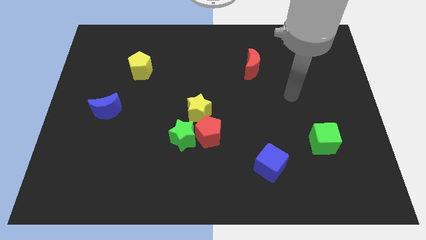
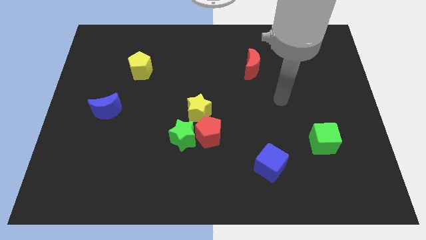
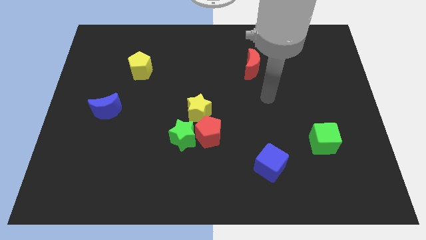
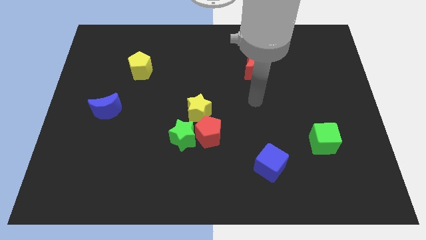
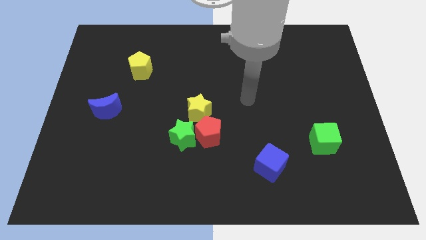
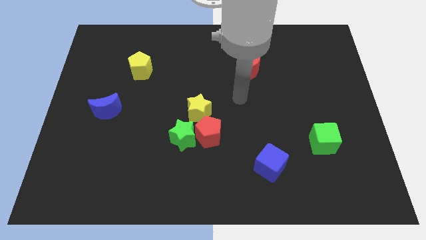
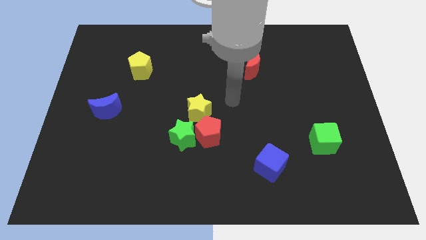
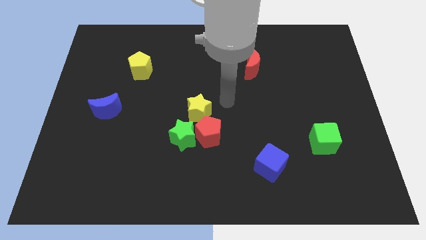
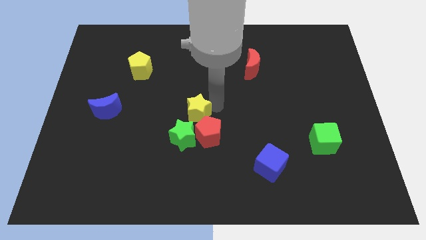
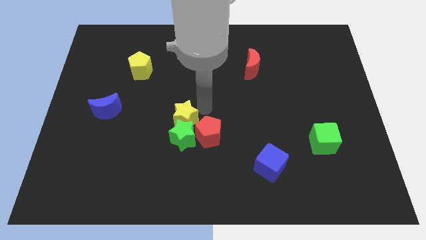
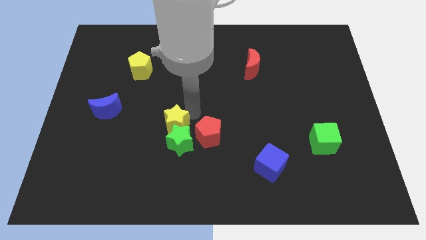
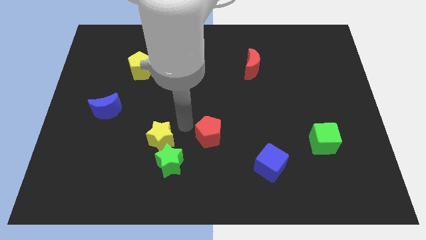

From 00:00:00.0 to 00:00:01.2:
pull the red pentagon apart from the green star and yellow star

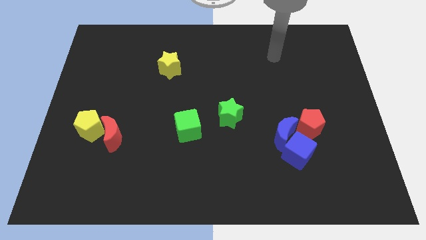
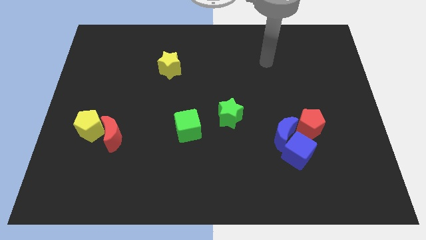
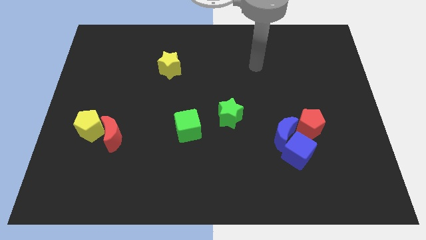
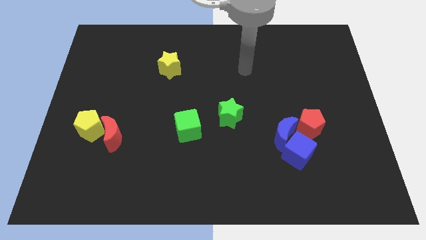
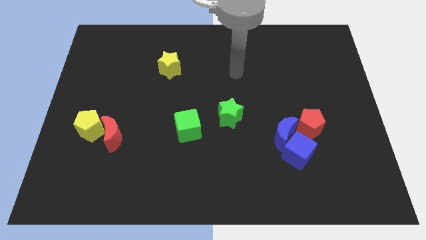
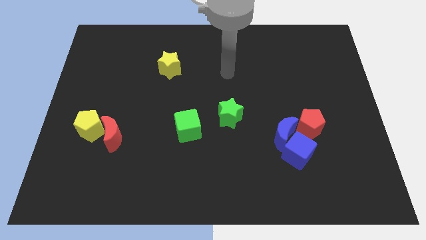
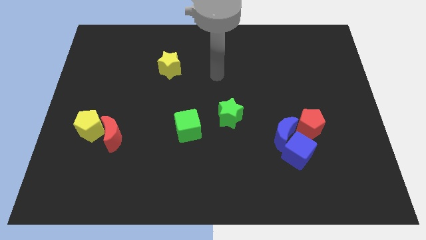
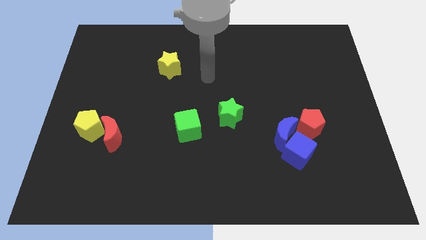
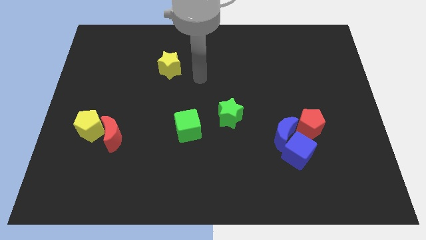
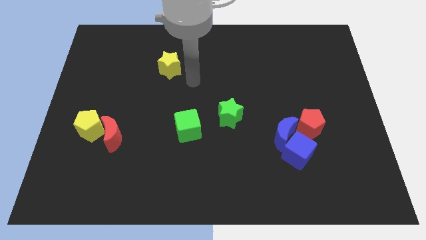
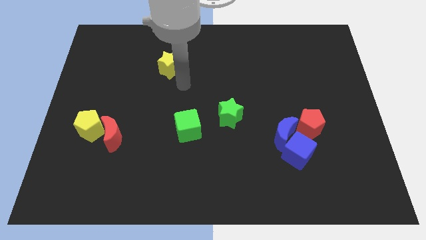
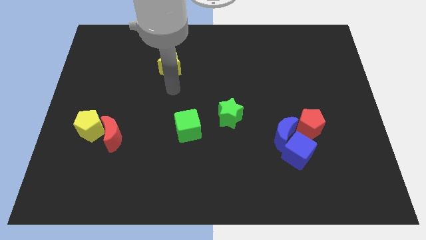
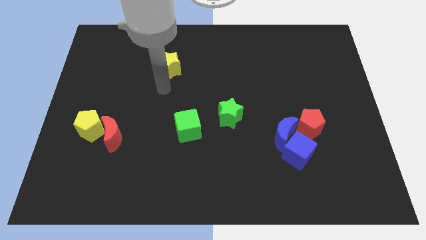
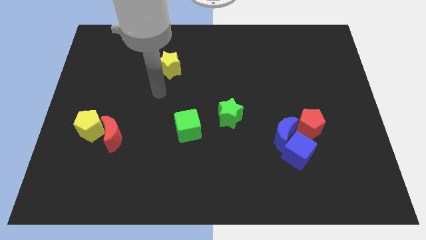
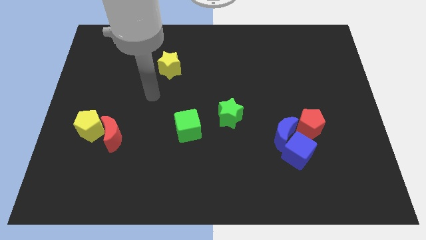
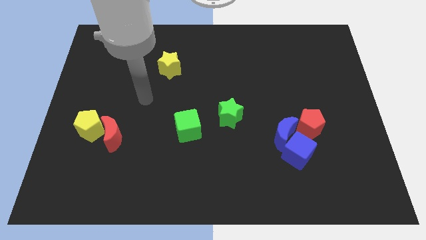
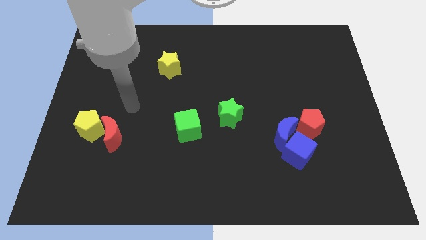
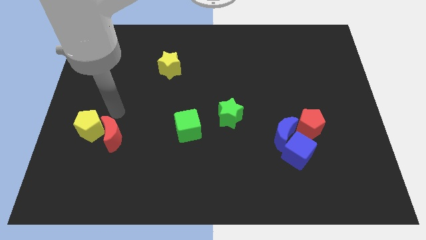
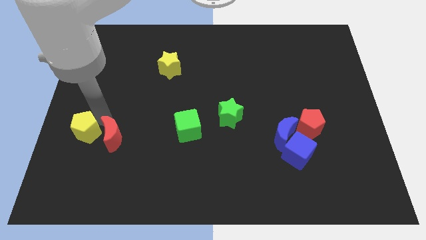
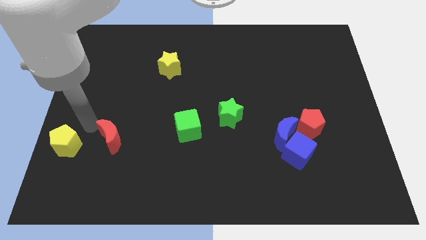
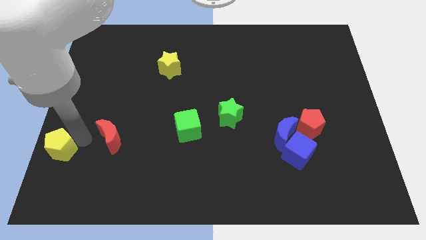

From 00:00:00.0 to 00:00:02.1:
move the red moon away from the yellow pentagon

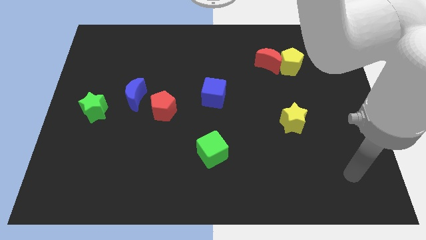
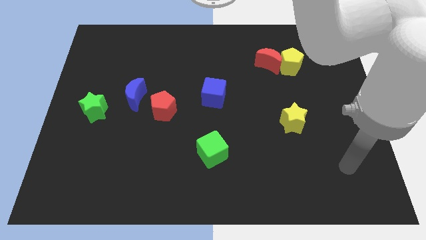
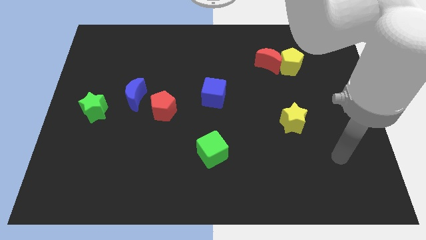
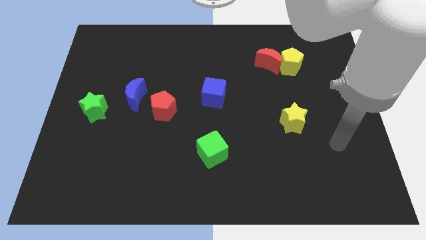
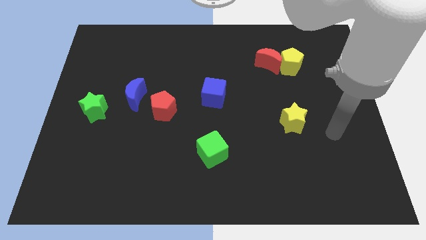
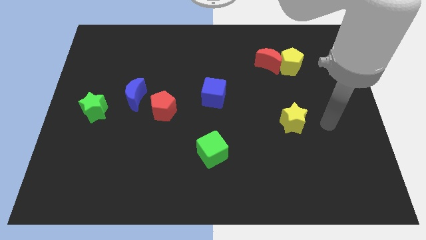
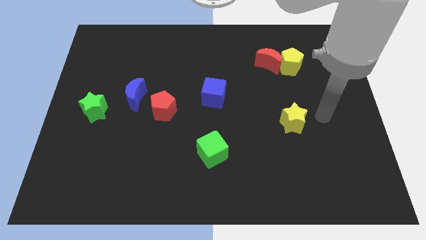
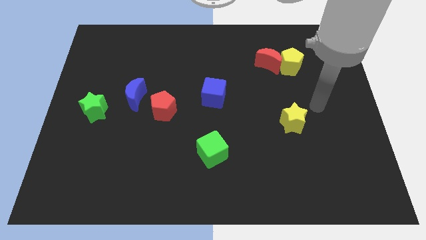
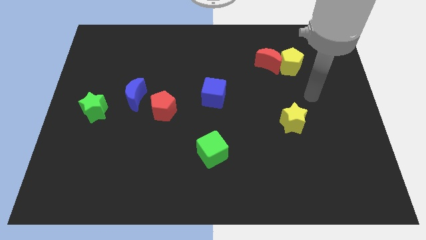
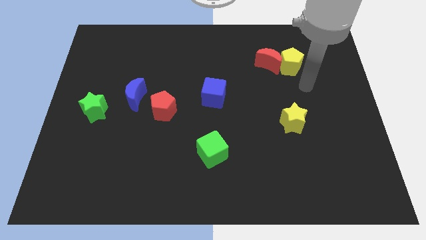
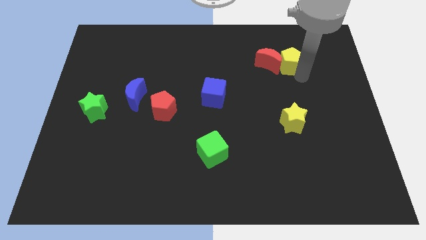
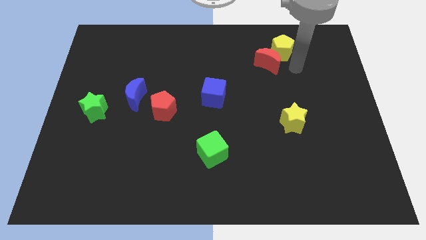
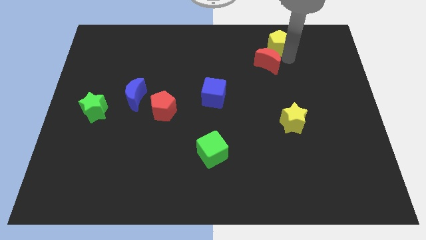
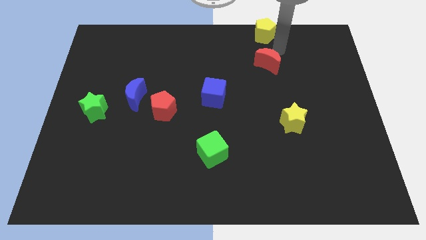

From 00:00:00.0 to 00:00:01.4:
pull the red moon apart from the yellow pentagon

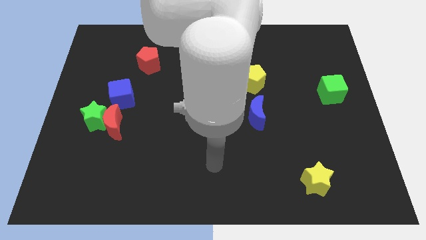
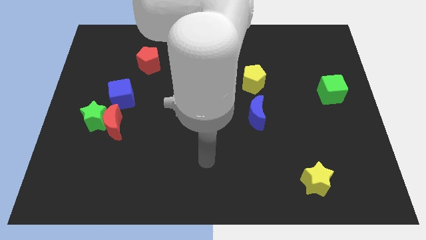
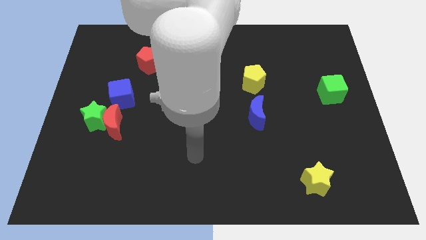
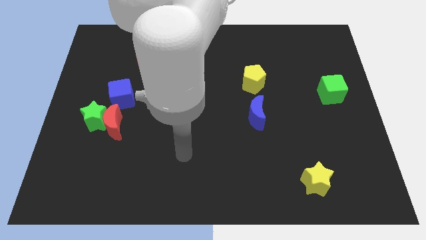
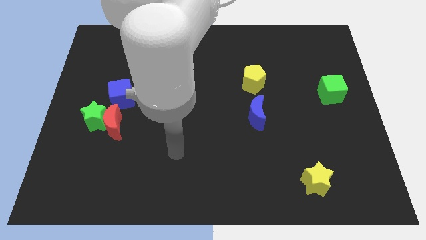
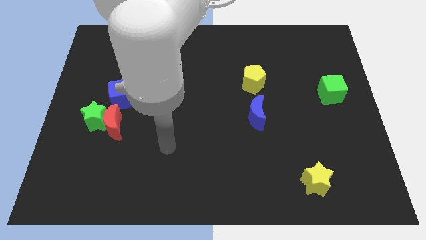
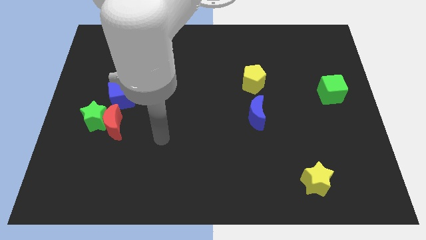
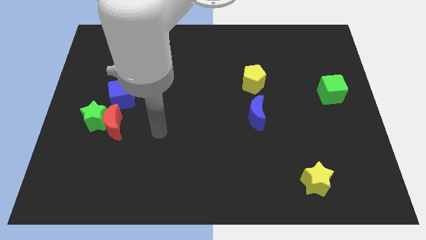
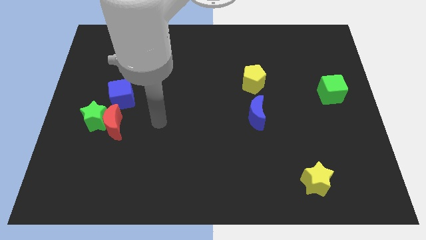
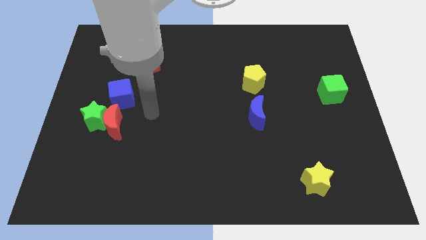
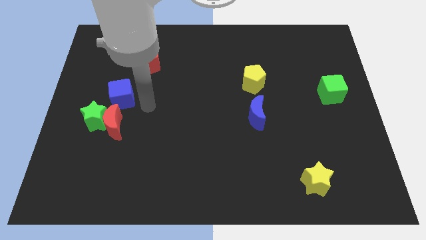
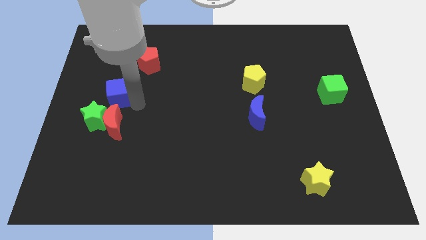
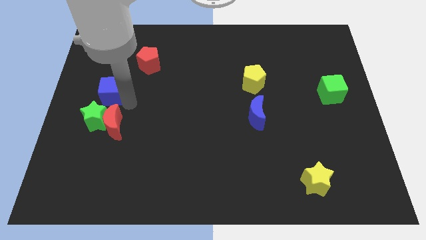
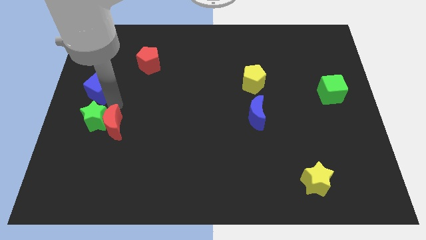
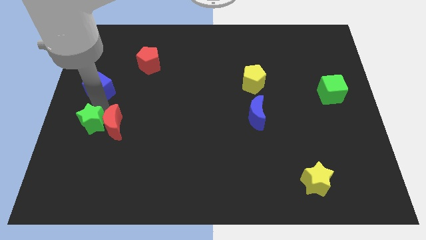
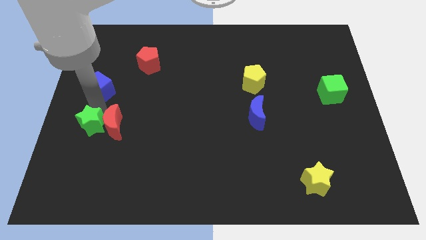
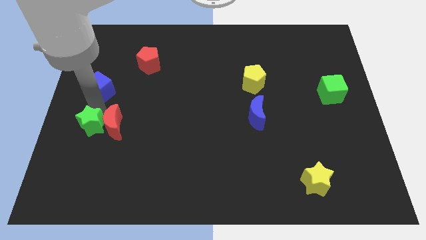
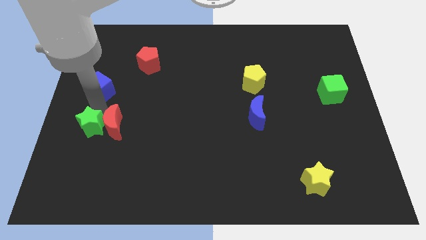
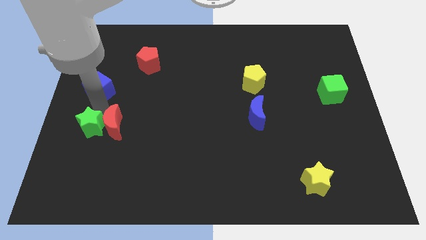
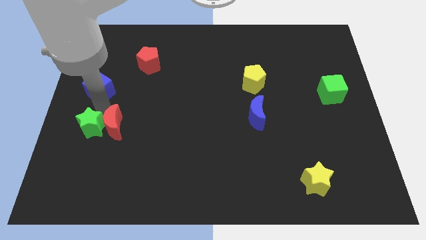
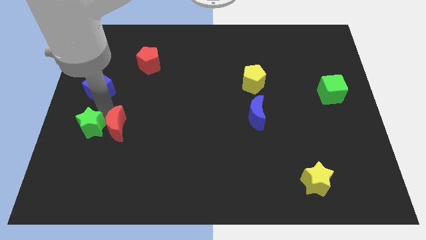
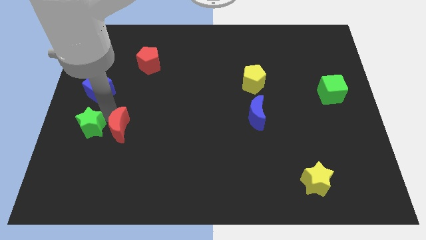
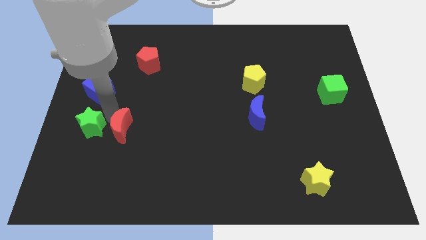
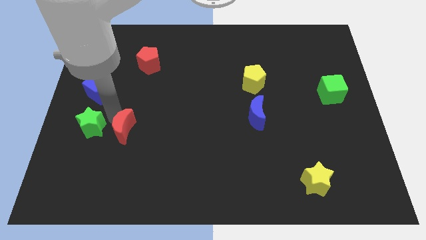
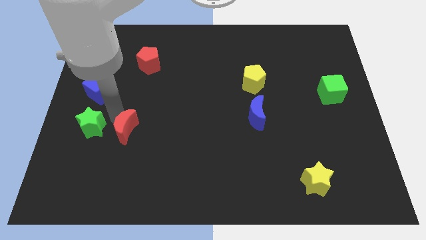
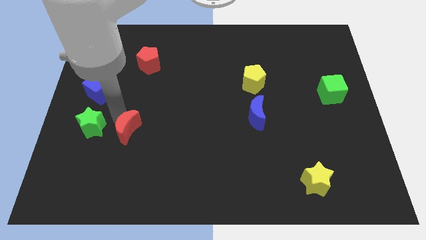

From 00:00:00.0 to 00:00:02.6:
separate the red moon from the green star and blue cube

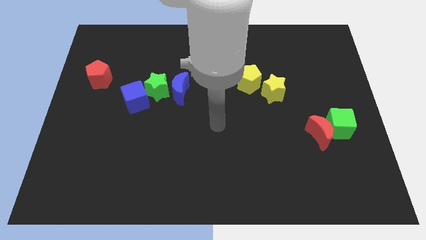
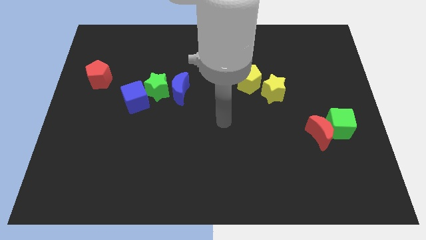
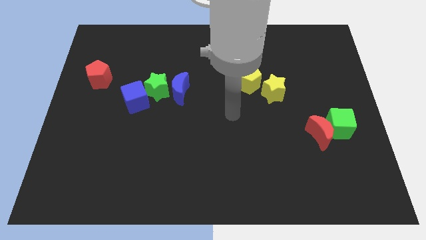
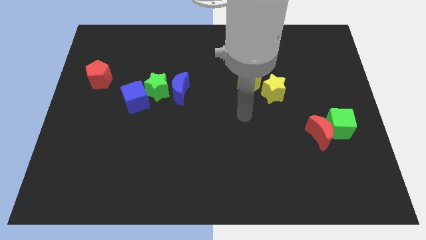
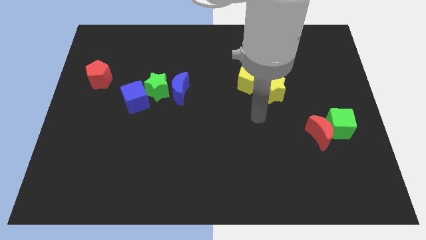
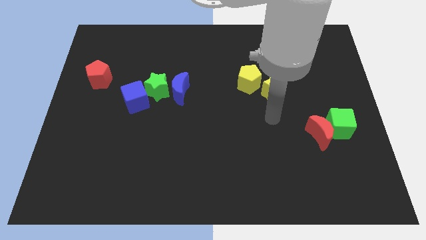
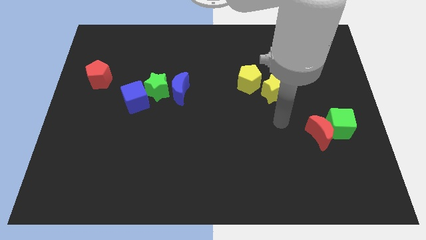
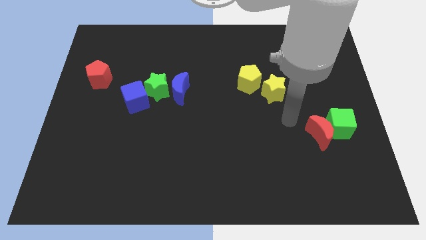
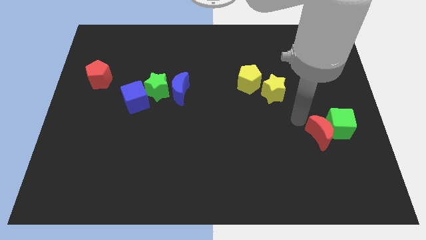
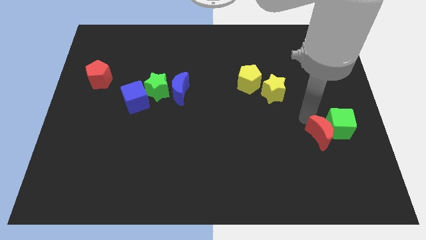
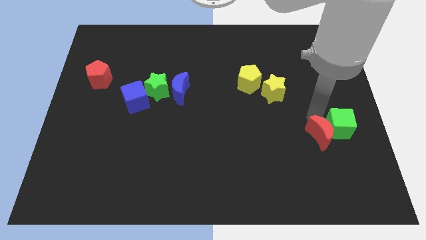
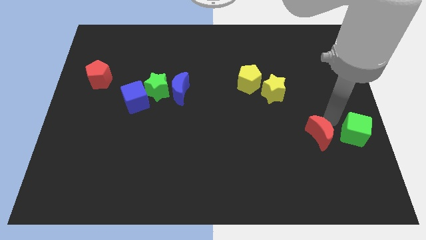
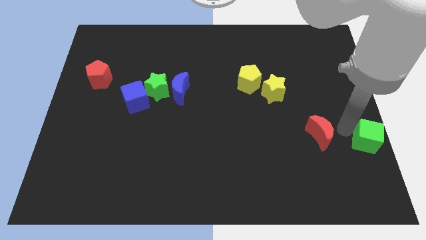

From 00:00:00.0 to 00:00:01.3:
separate the red moon from the green cube

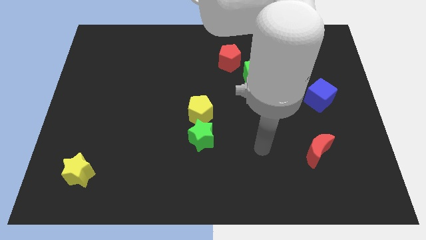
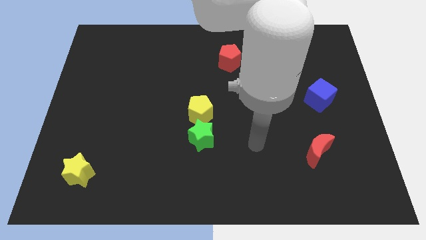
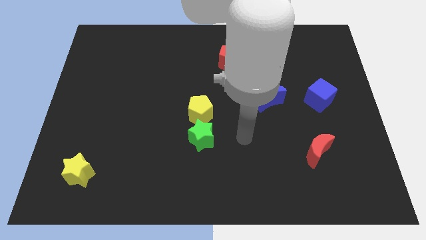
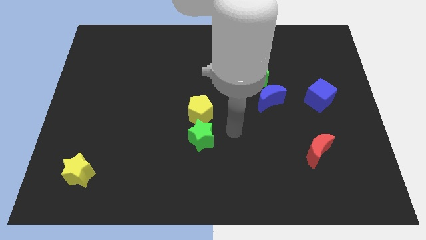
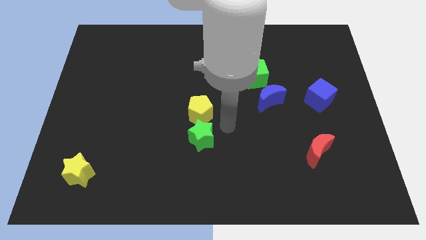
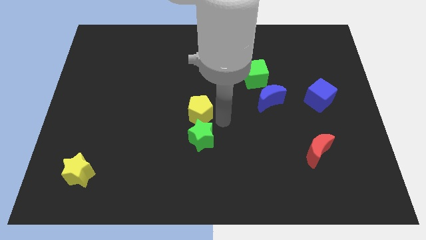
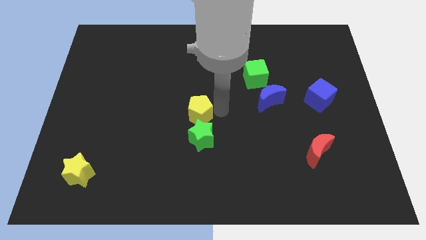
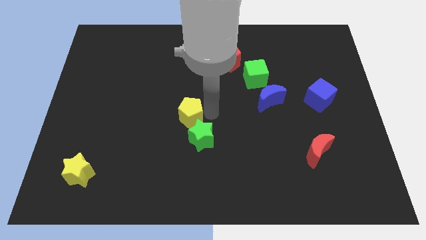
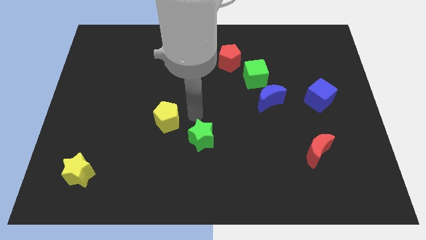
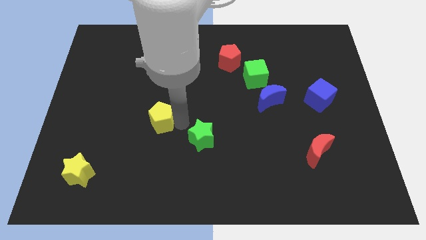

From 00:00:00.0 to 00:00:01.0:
move the green star away from the yellow pentagon
